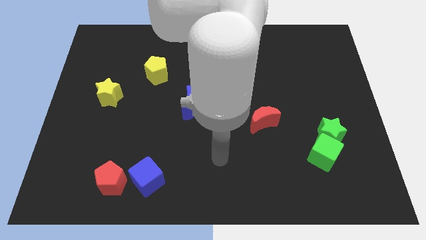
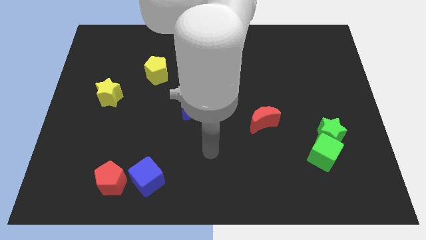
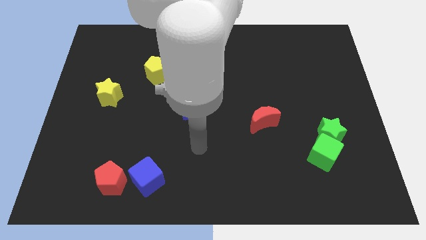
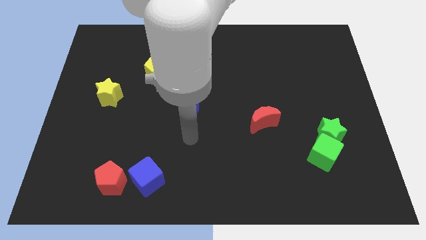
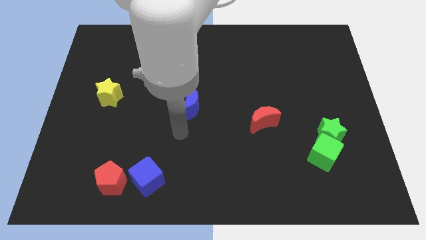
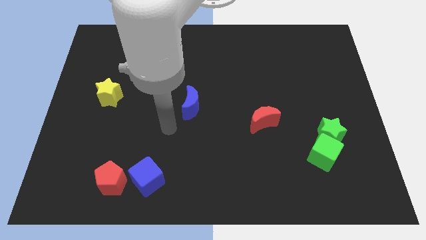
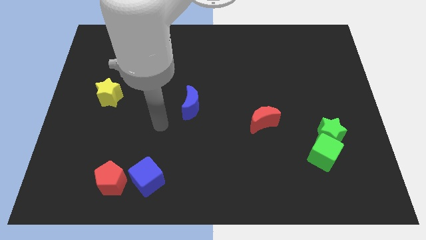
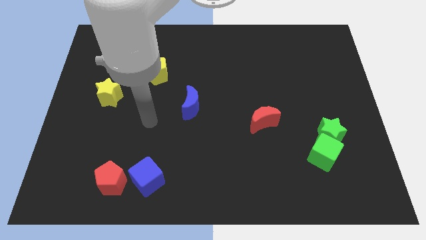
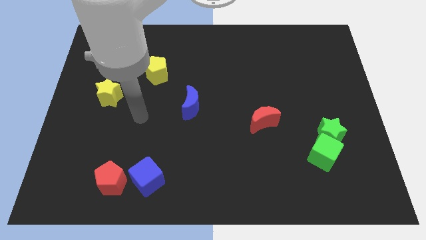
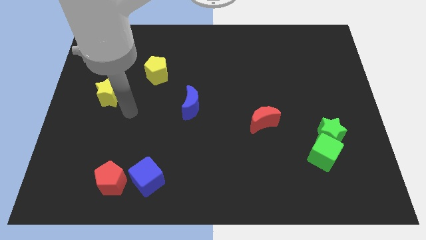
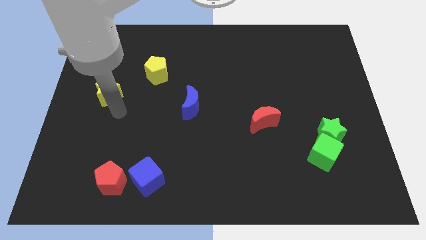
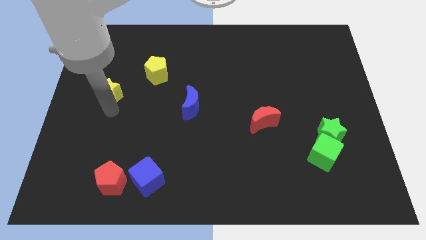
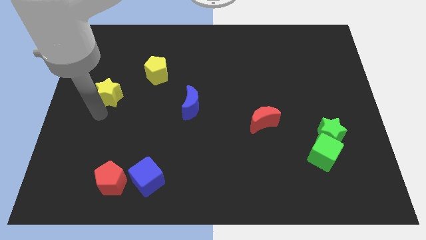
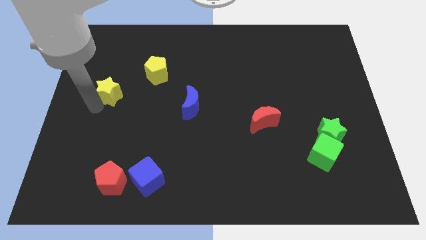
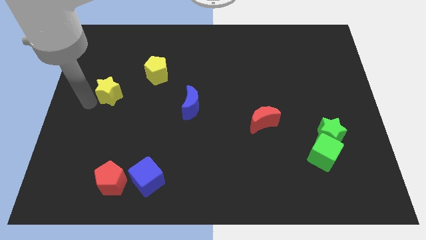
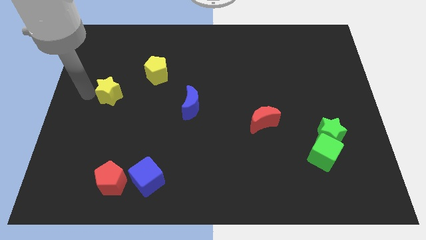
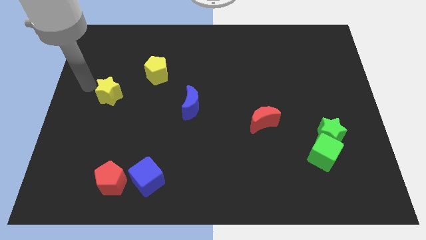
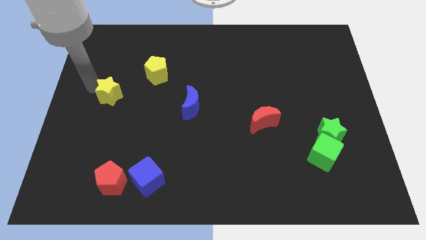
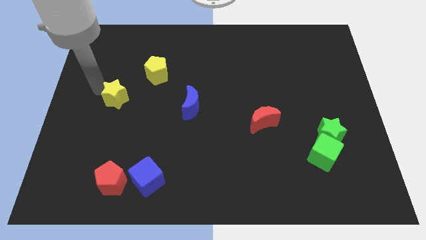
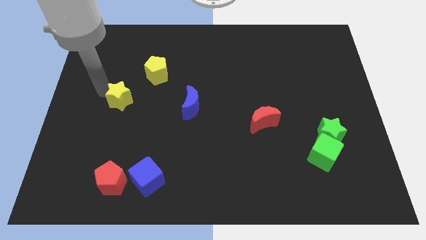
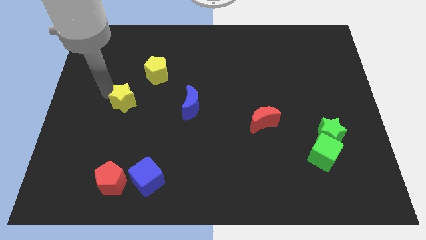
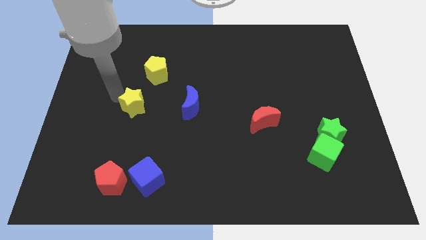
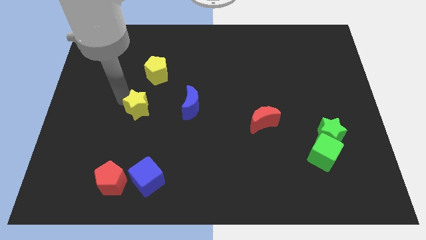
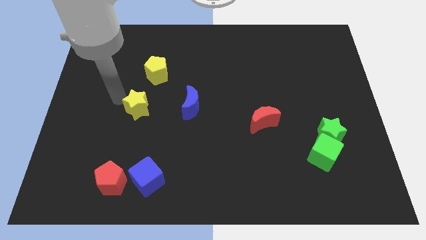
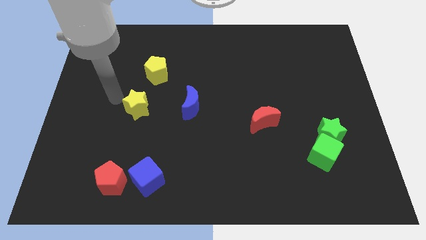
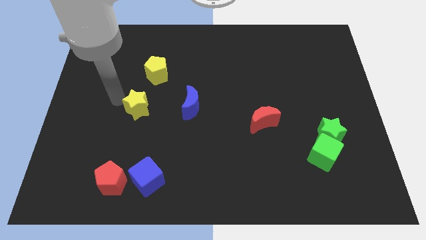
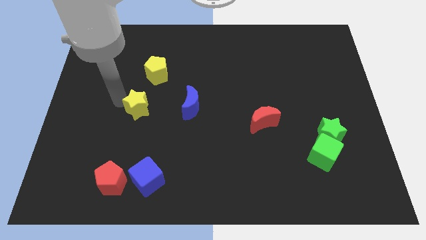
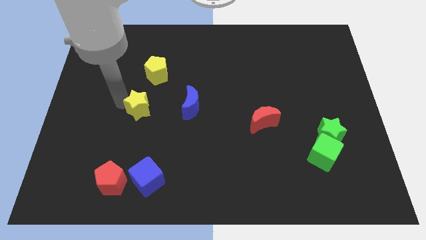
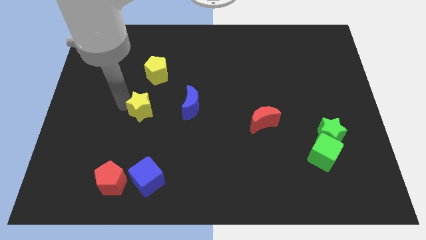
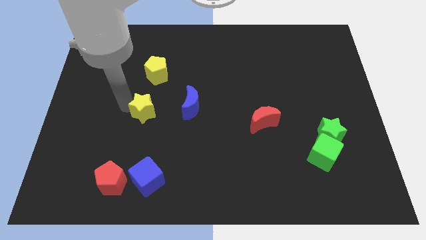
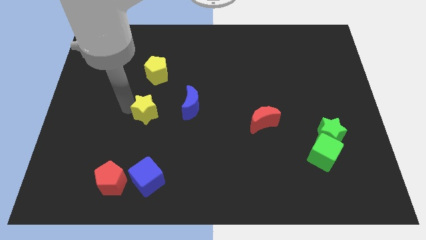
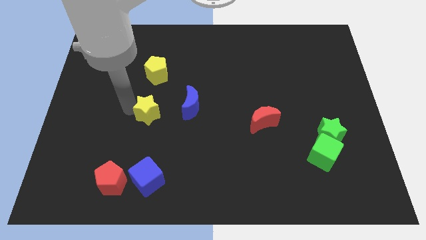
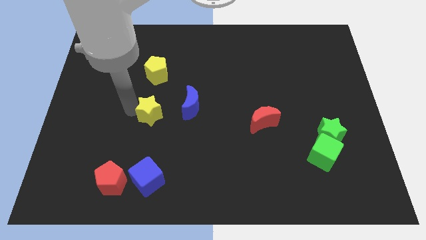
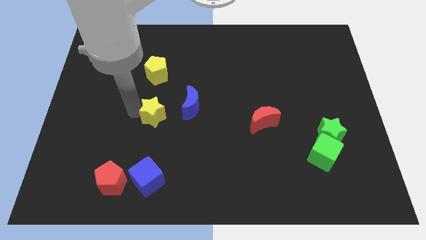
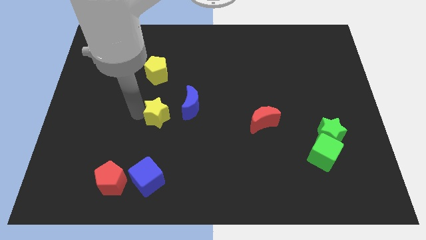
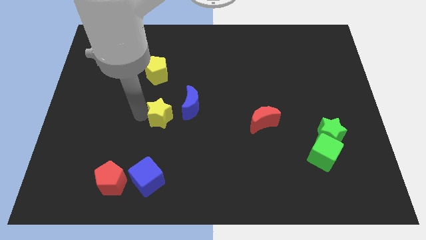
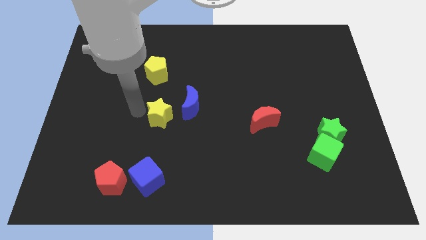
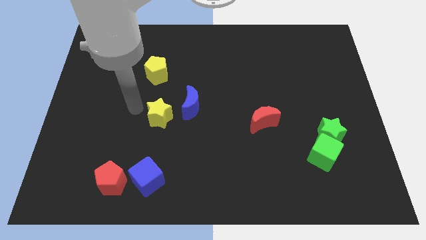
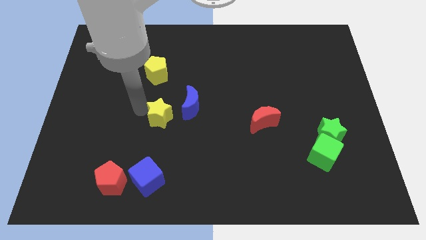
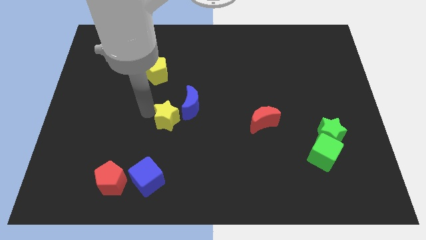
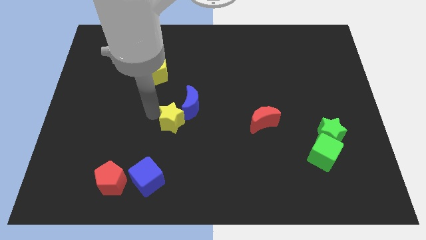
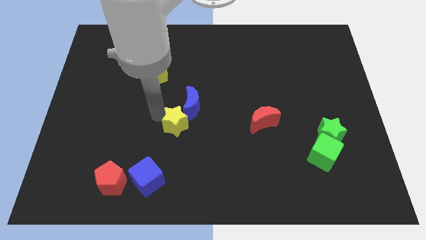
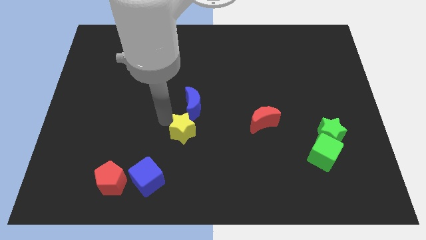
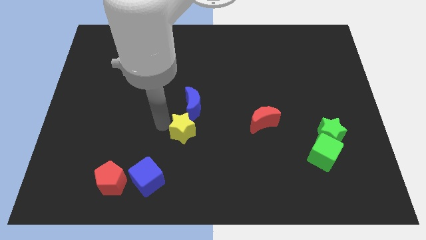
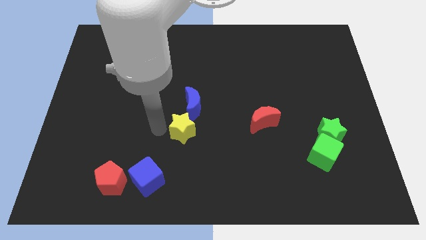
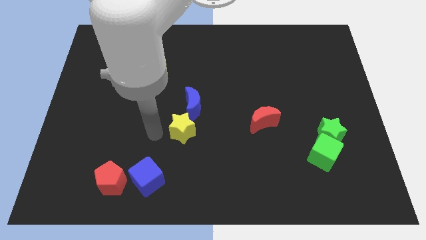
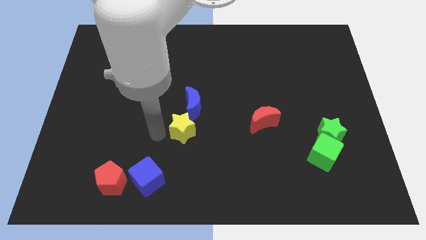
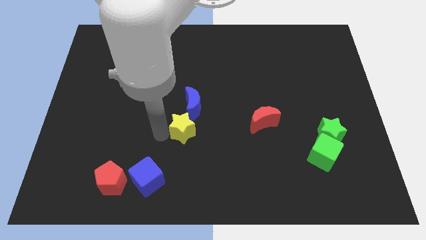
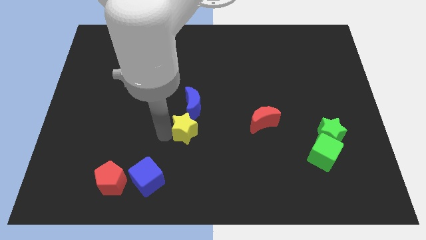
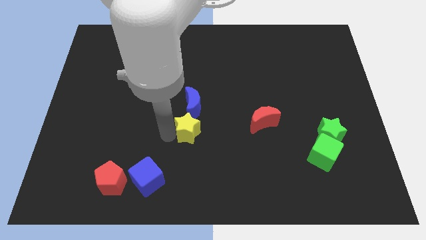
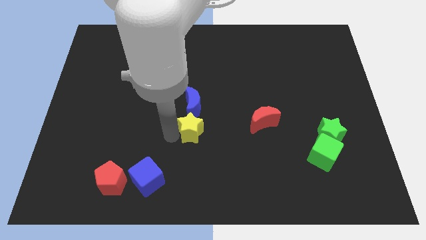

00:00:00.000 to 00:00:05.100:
push the yellow star to the bottom right side of the blue moon

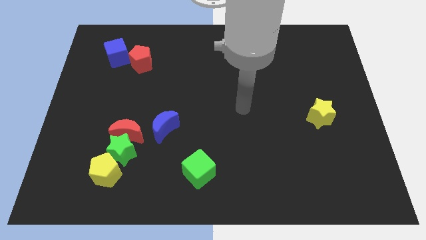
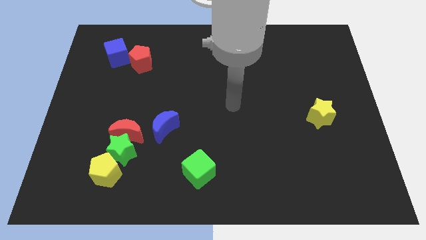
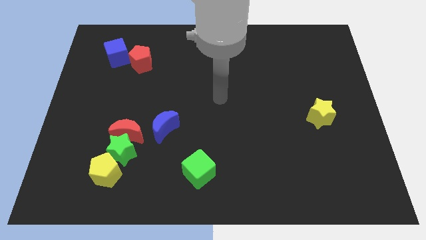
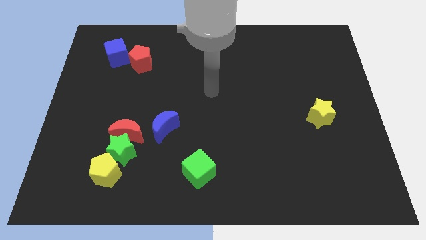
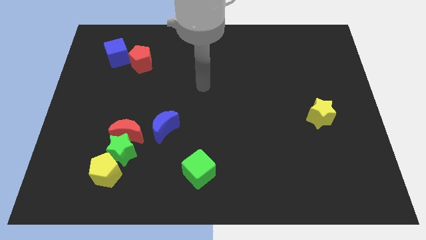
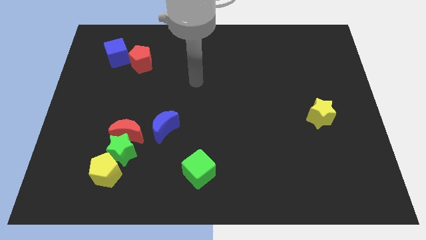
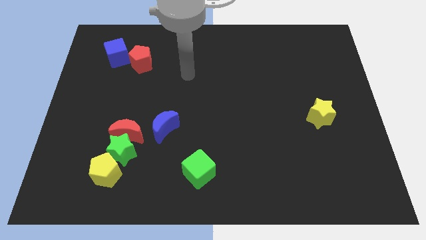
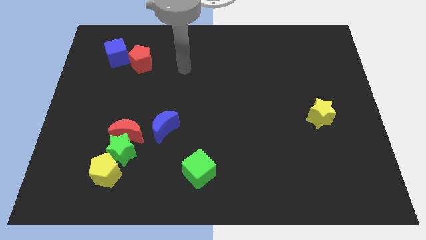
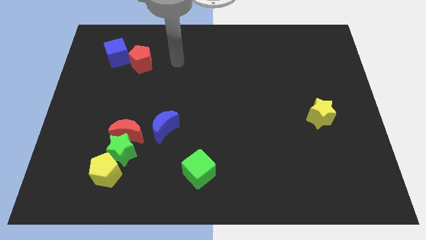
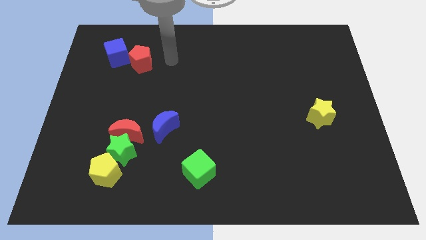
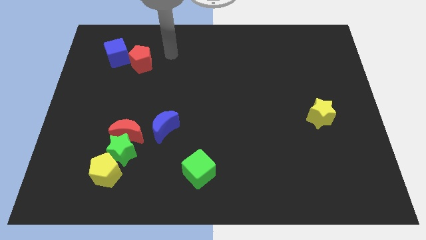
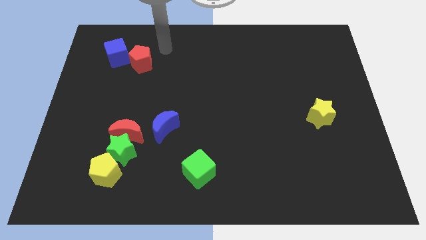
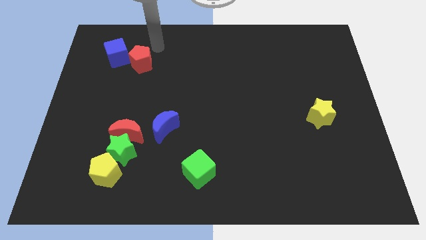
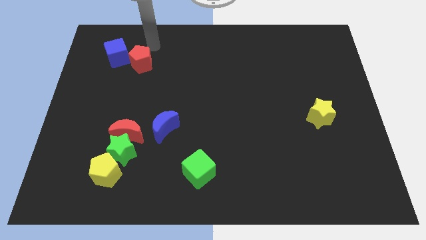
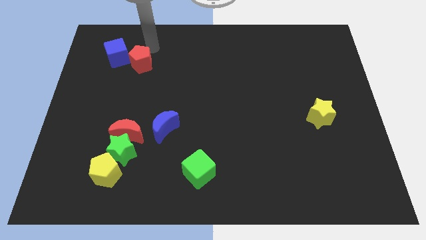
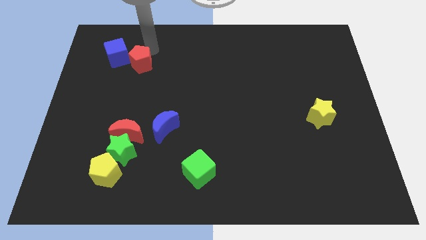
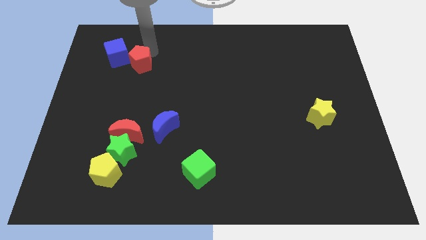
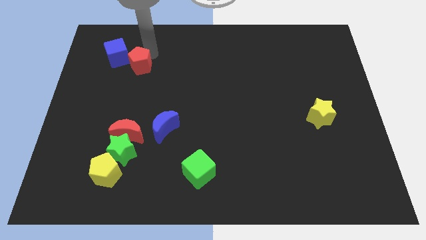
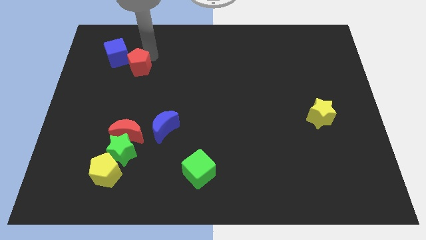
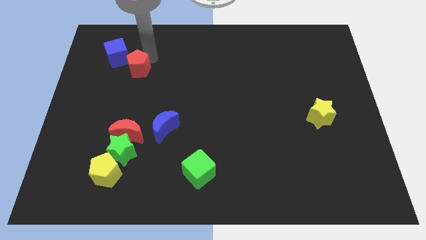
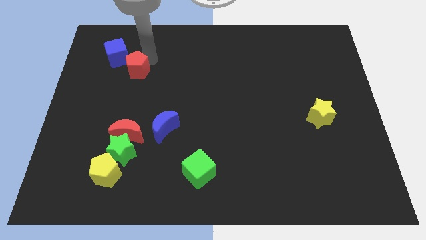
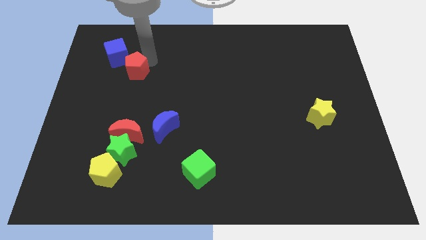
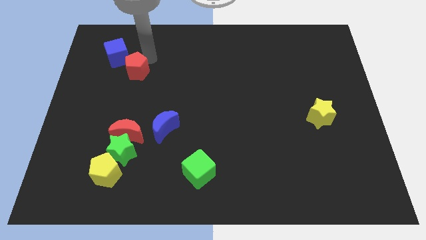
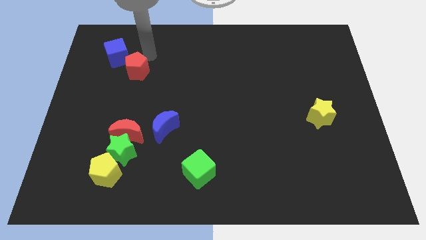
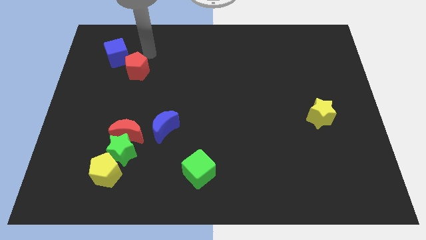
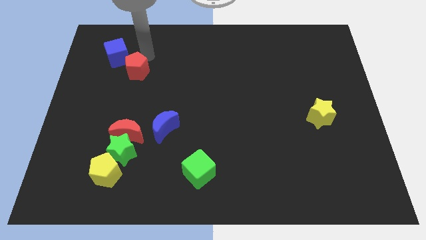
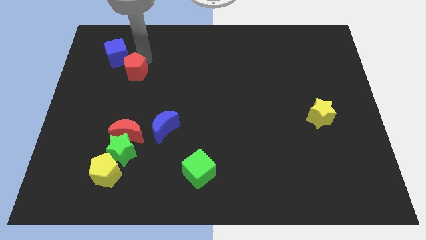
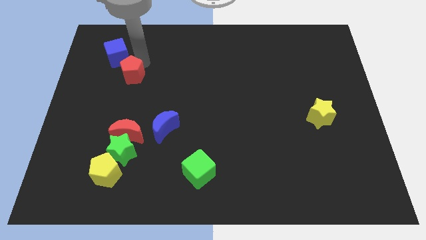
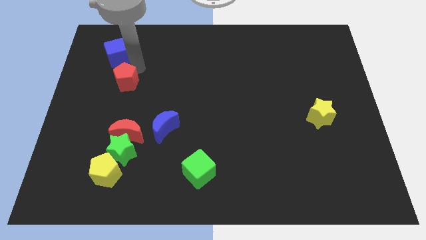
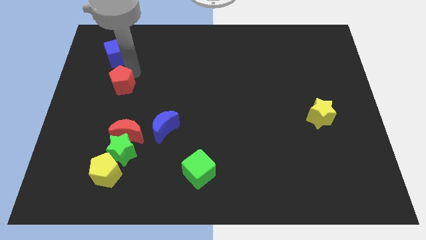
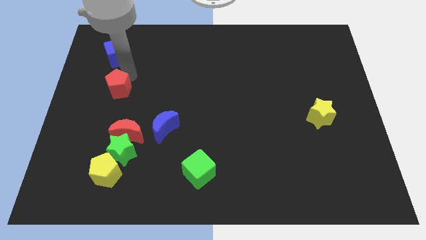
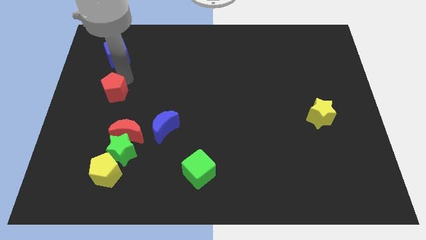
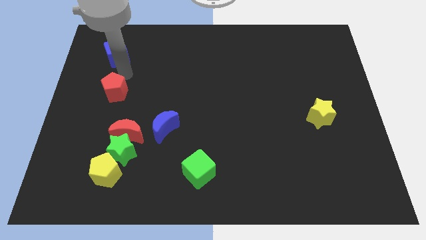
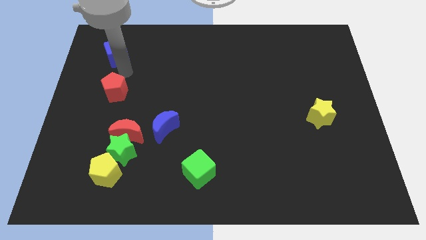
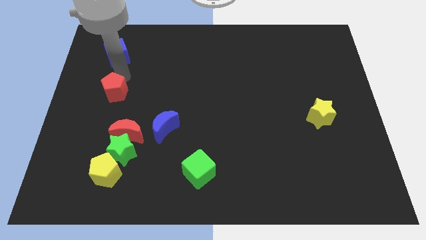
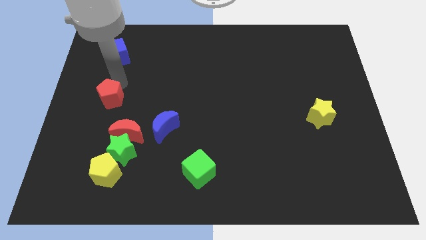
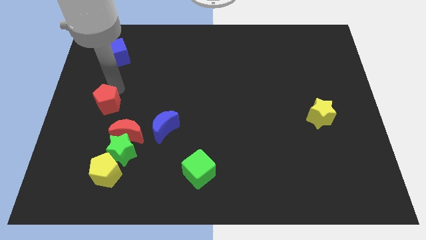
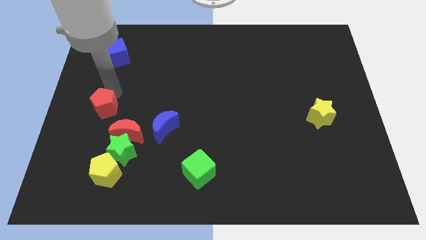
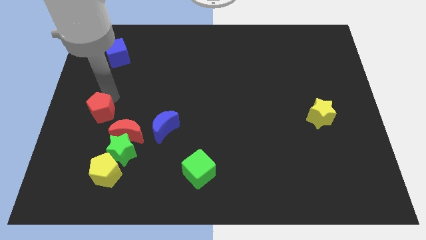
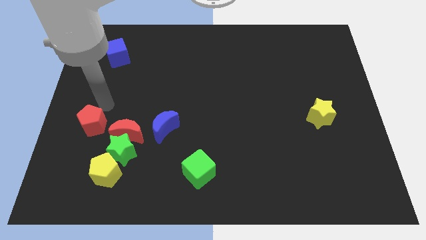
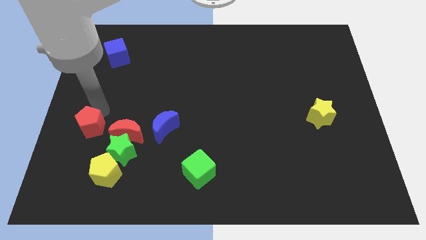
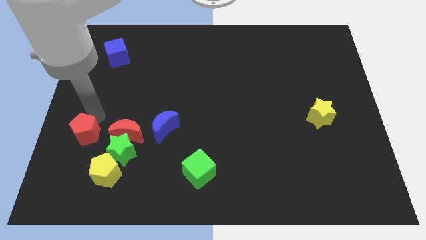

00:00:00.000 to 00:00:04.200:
push the red pentagon to the top left of the yellow pentagon
